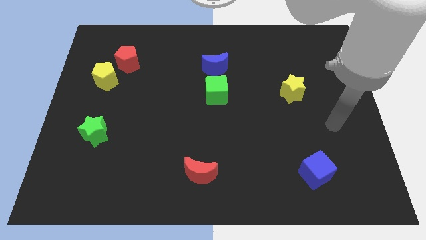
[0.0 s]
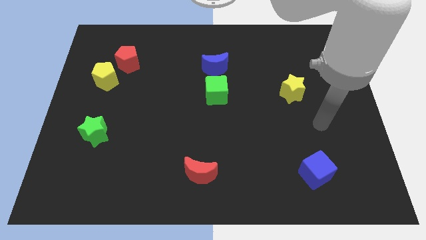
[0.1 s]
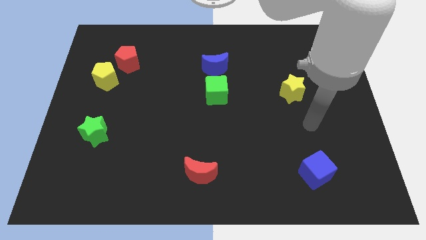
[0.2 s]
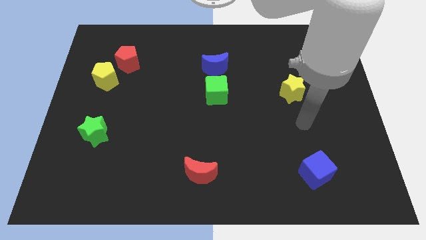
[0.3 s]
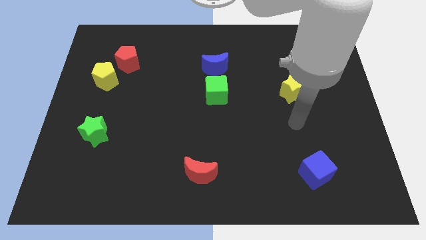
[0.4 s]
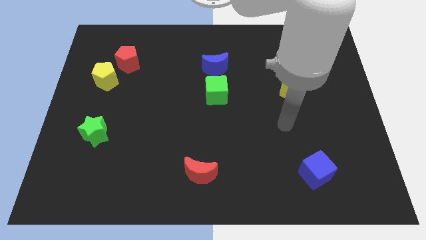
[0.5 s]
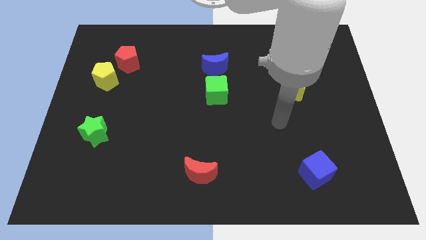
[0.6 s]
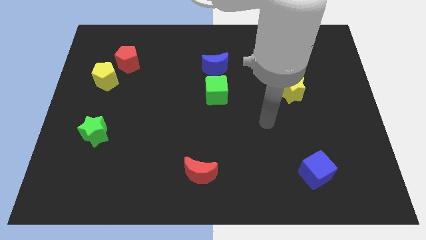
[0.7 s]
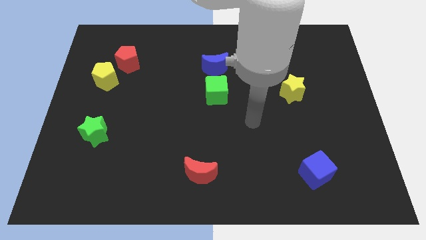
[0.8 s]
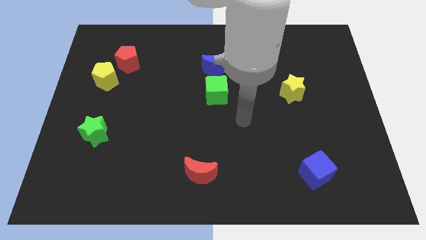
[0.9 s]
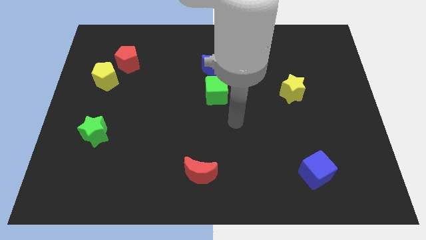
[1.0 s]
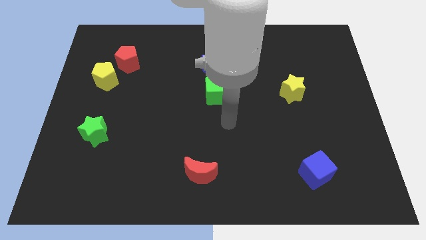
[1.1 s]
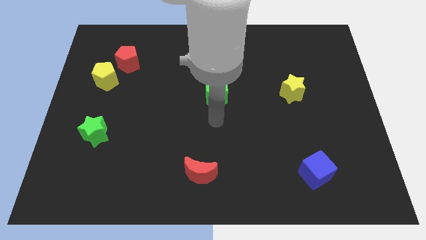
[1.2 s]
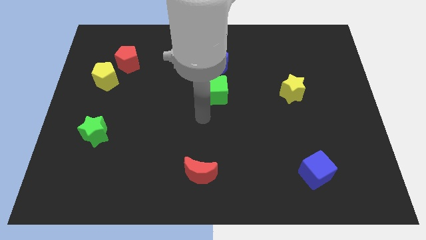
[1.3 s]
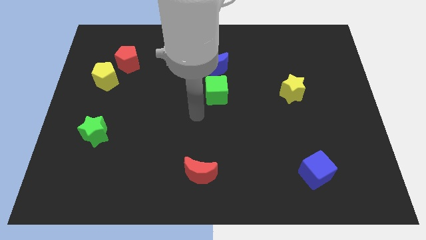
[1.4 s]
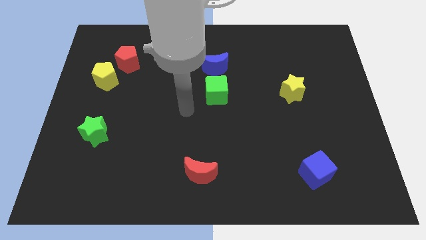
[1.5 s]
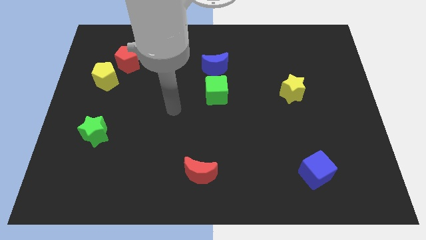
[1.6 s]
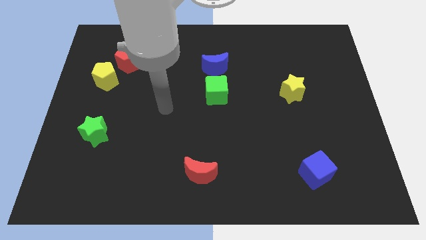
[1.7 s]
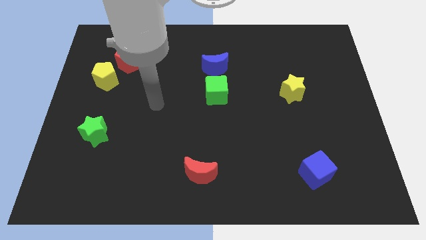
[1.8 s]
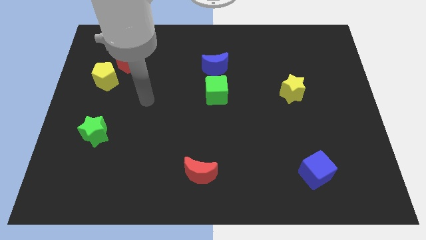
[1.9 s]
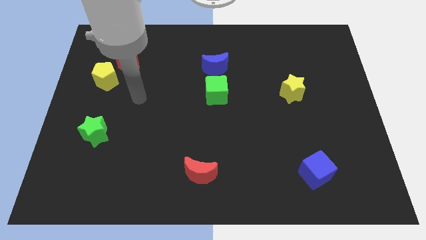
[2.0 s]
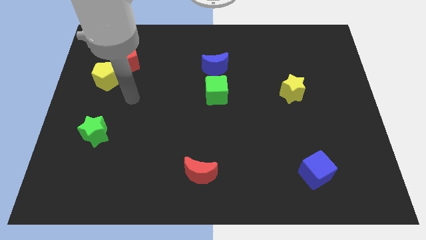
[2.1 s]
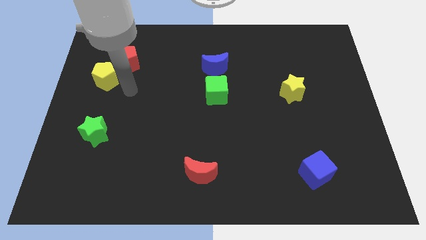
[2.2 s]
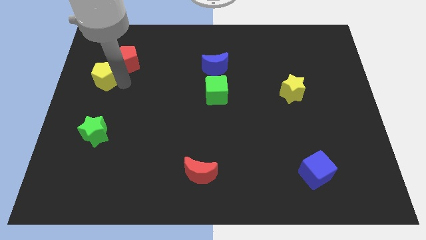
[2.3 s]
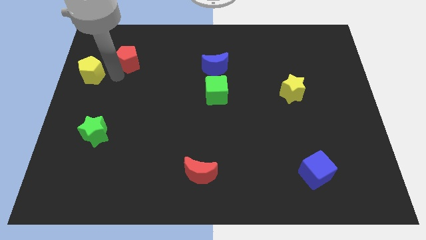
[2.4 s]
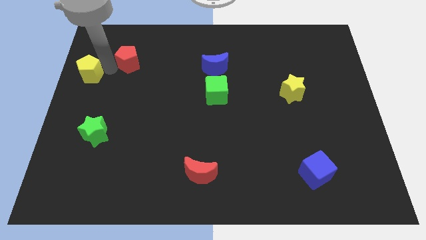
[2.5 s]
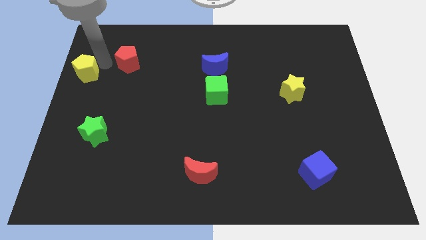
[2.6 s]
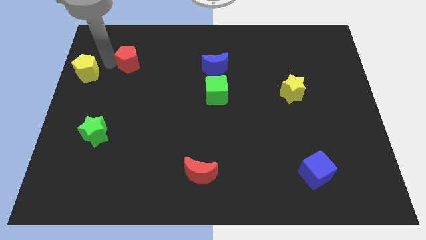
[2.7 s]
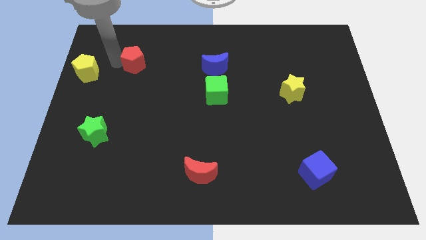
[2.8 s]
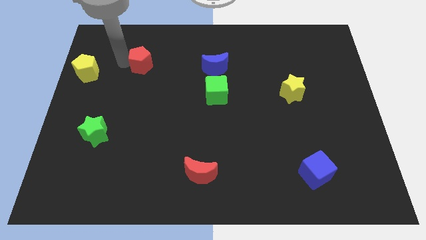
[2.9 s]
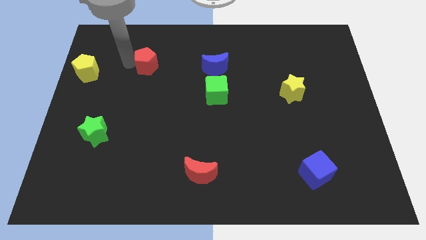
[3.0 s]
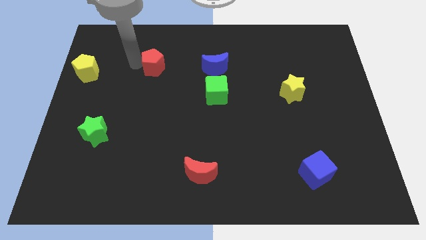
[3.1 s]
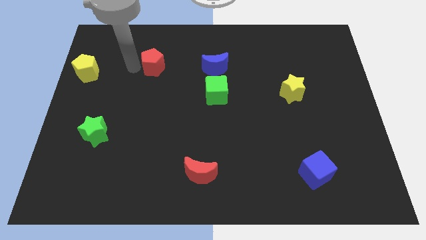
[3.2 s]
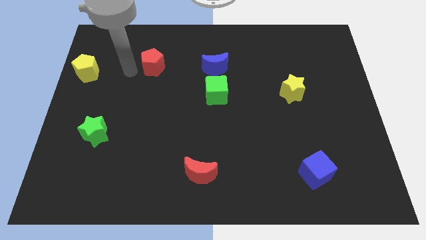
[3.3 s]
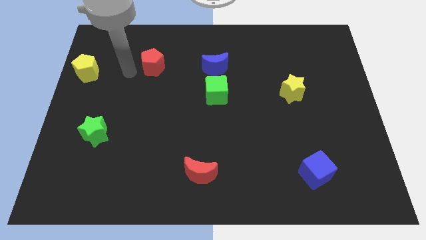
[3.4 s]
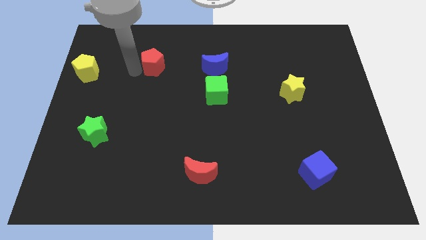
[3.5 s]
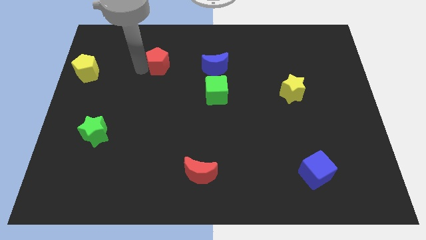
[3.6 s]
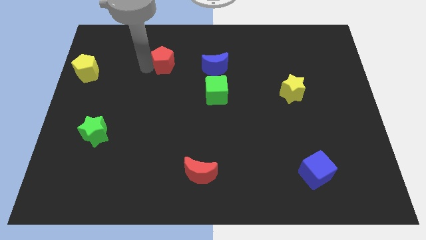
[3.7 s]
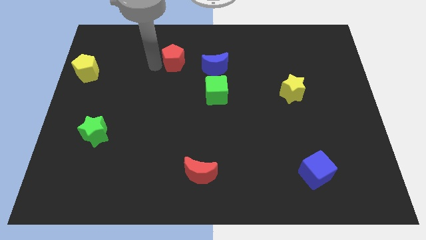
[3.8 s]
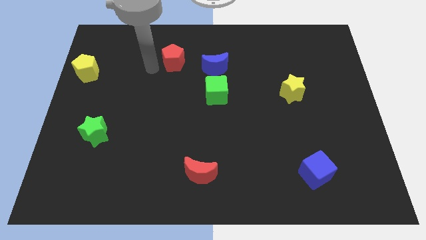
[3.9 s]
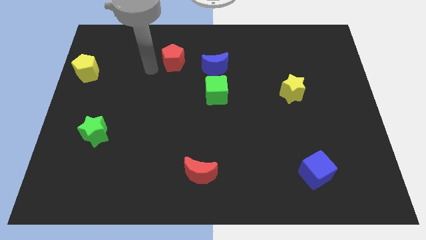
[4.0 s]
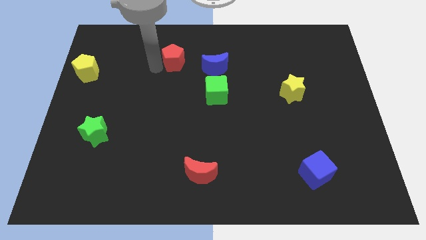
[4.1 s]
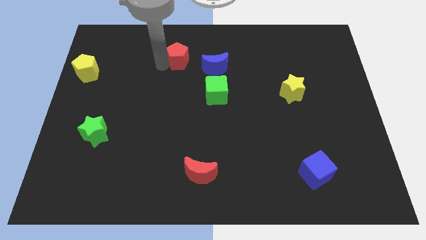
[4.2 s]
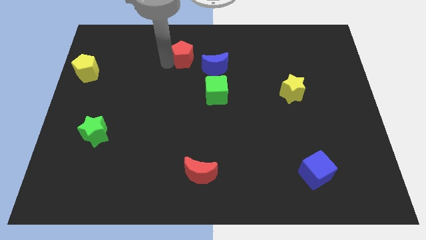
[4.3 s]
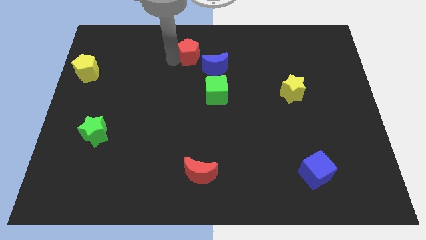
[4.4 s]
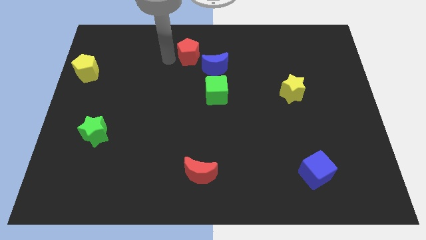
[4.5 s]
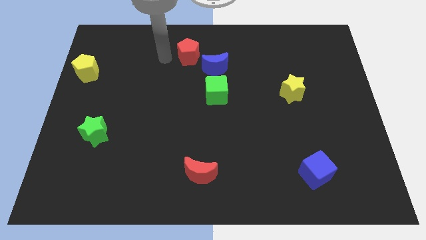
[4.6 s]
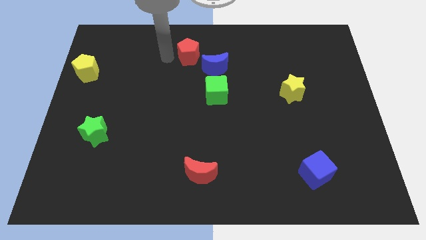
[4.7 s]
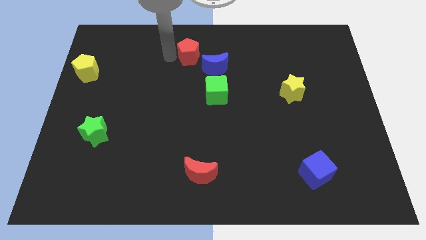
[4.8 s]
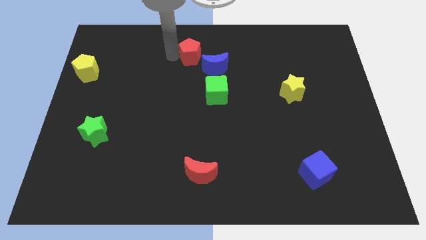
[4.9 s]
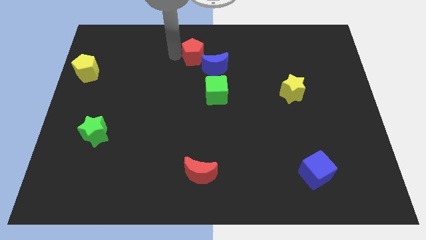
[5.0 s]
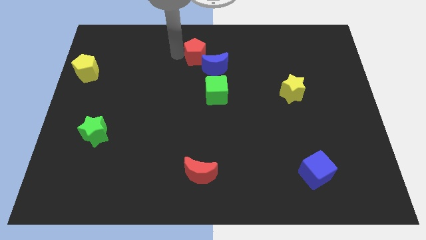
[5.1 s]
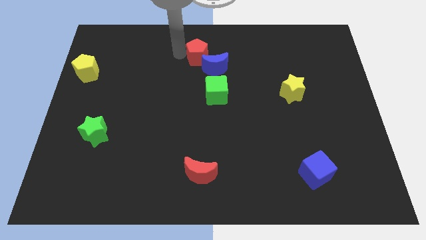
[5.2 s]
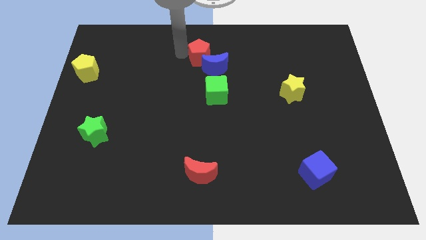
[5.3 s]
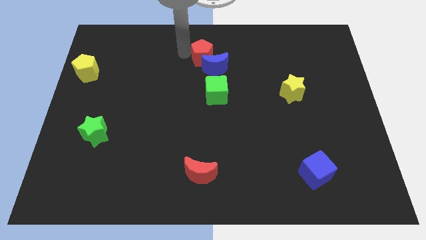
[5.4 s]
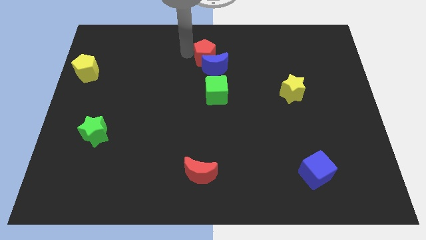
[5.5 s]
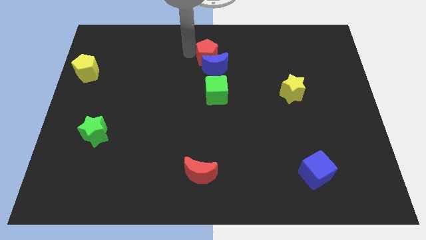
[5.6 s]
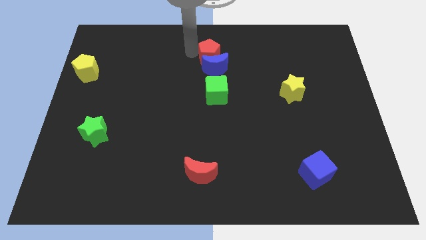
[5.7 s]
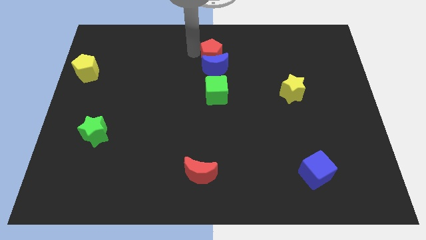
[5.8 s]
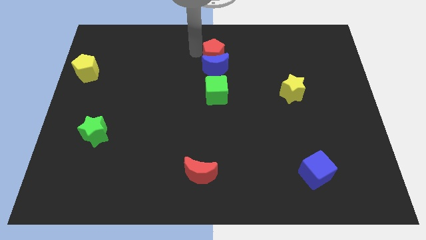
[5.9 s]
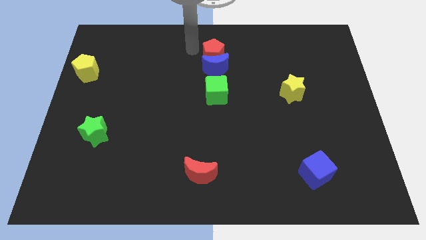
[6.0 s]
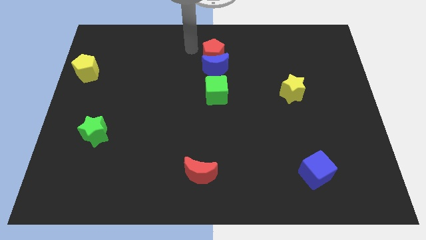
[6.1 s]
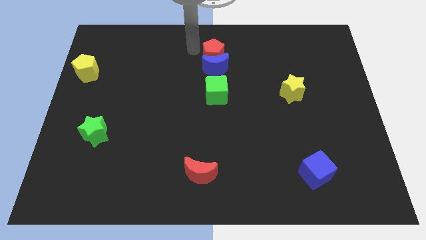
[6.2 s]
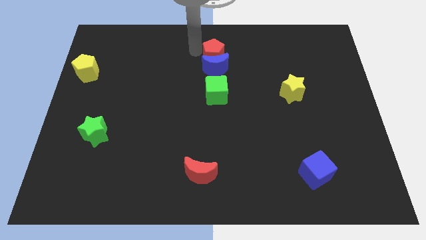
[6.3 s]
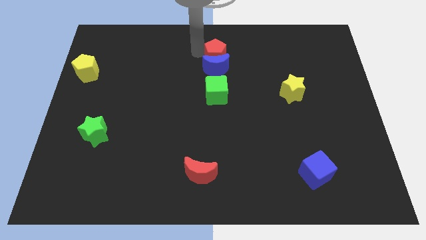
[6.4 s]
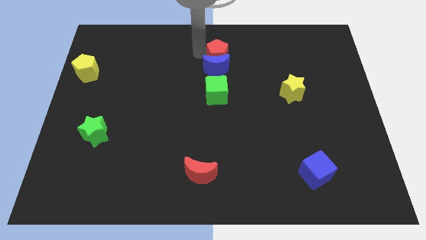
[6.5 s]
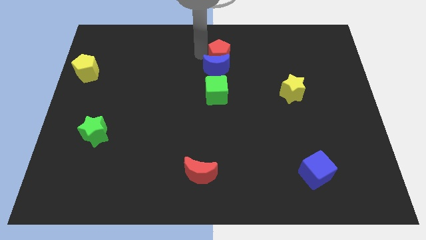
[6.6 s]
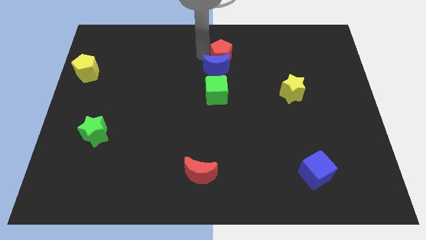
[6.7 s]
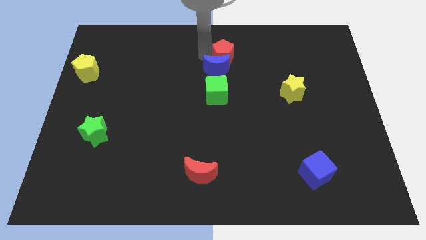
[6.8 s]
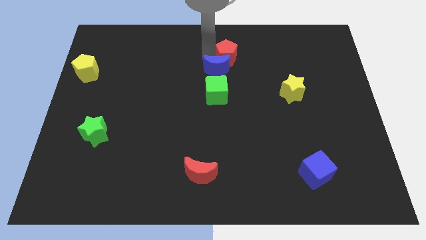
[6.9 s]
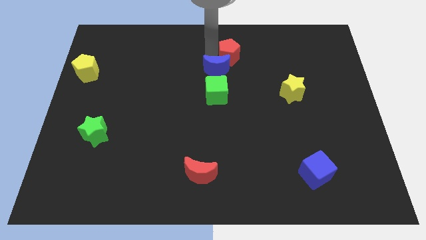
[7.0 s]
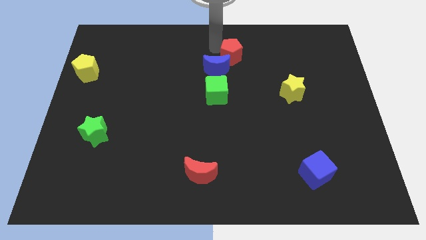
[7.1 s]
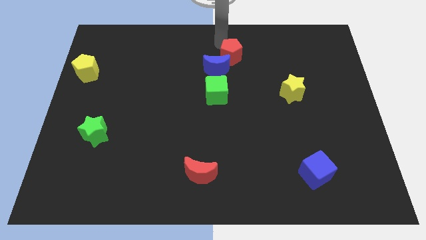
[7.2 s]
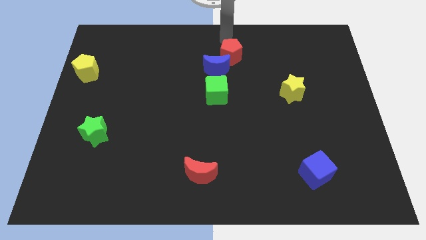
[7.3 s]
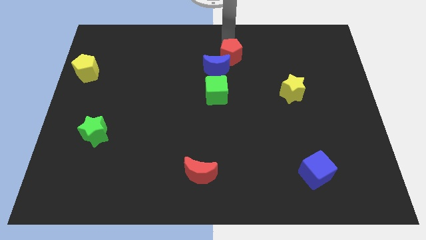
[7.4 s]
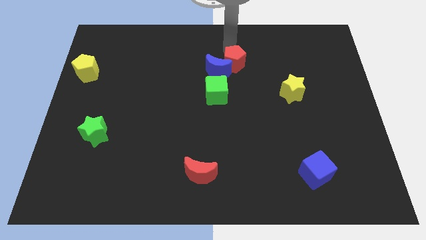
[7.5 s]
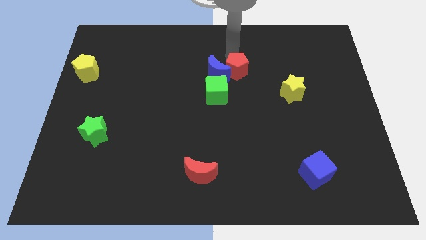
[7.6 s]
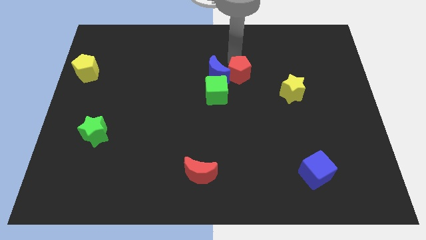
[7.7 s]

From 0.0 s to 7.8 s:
slide the red pentagon to the bottom right of the blue moon
